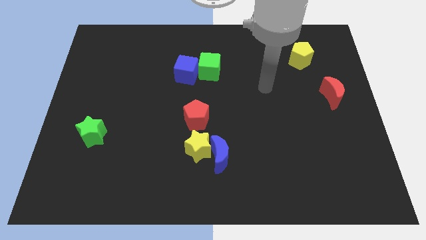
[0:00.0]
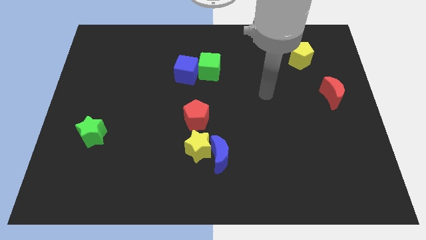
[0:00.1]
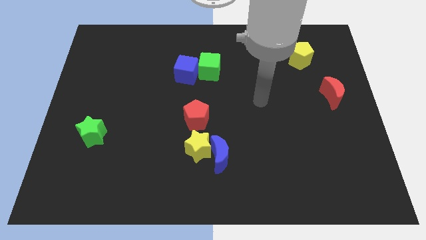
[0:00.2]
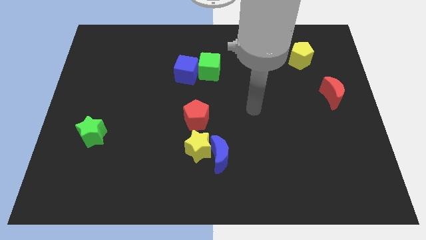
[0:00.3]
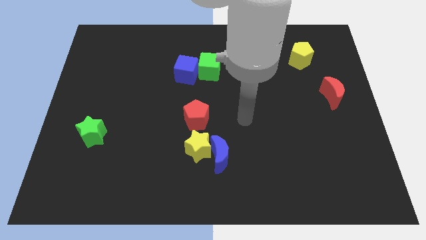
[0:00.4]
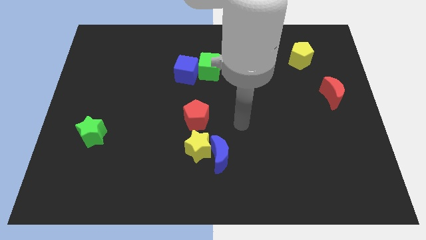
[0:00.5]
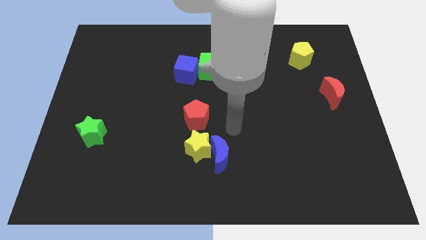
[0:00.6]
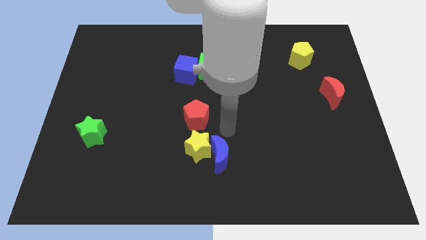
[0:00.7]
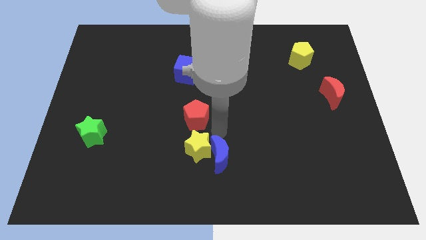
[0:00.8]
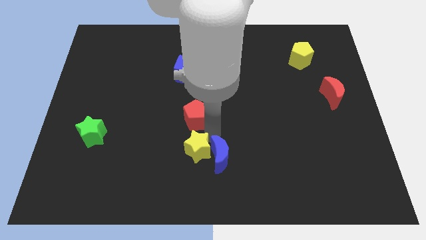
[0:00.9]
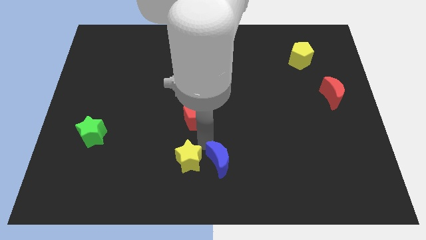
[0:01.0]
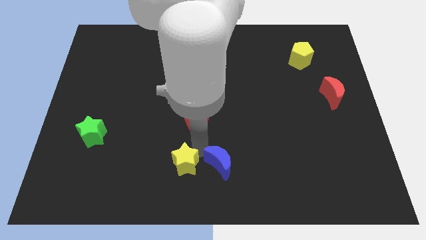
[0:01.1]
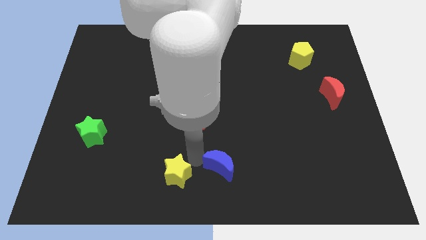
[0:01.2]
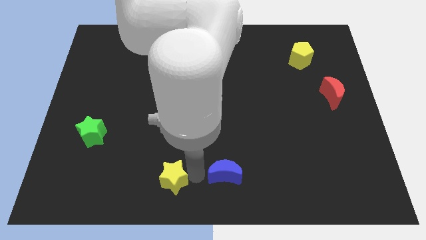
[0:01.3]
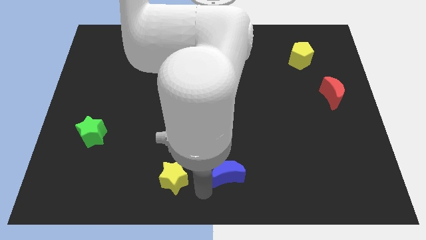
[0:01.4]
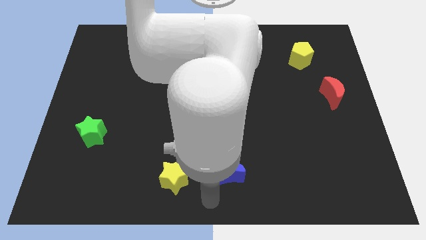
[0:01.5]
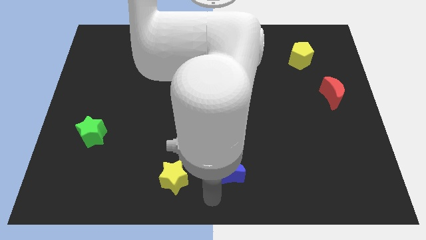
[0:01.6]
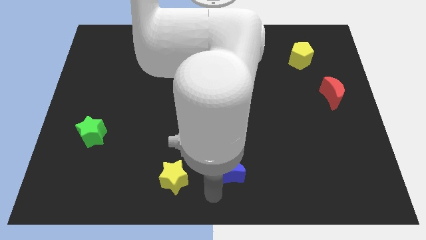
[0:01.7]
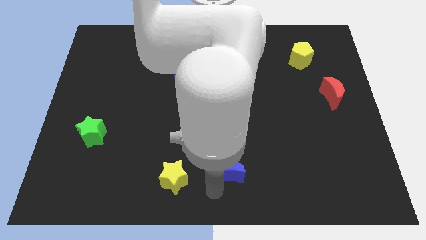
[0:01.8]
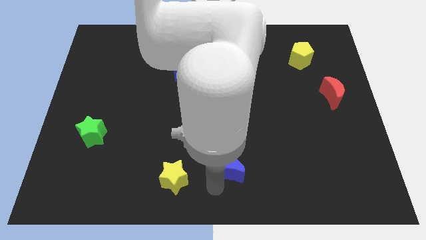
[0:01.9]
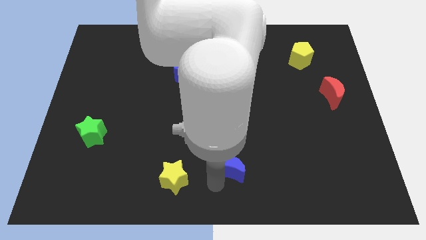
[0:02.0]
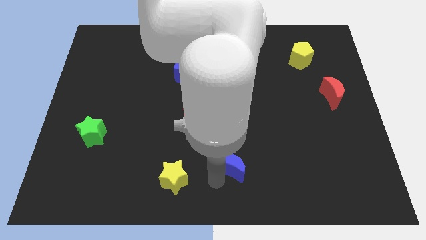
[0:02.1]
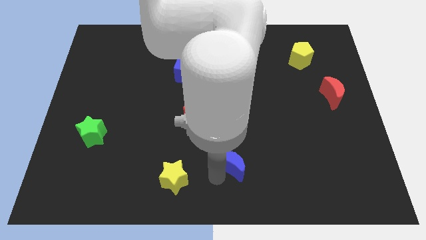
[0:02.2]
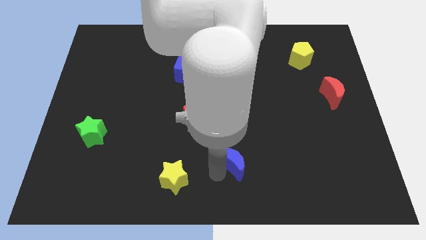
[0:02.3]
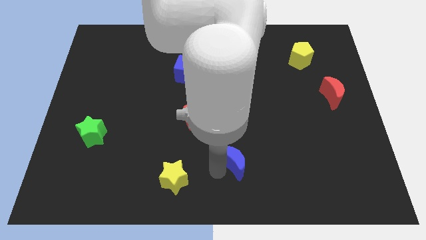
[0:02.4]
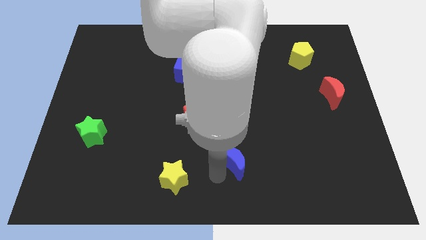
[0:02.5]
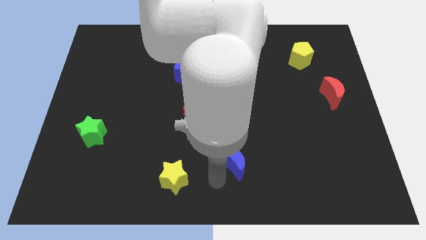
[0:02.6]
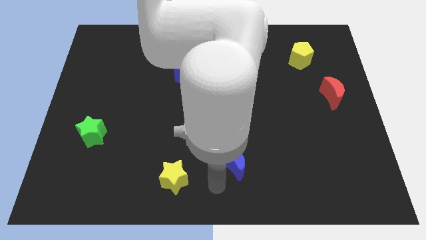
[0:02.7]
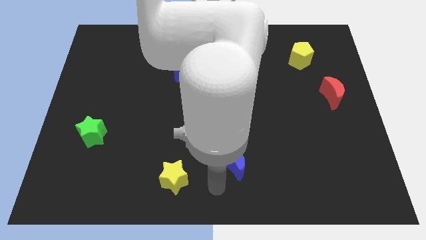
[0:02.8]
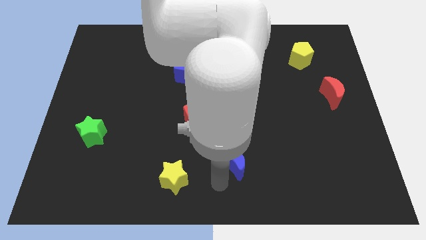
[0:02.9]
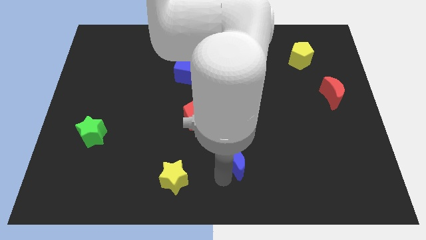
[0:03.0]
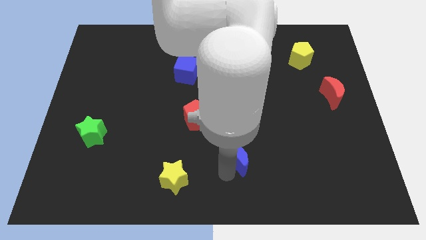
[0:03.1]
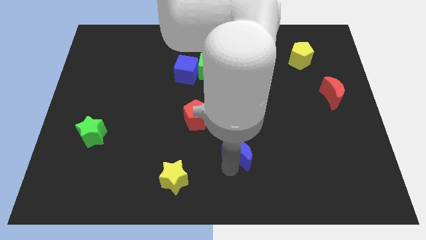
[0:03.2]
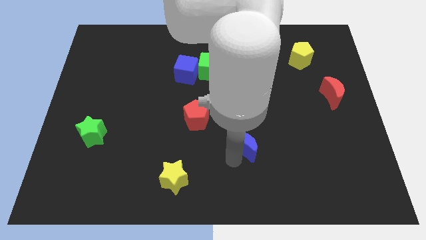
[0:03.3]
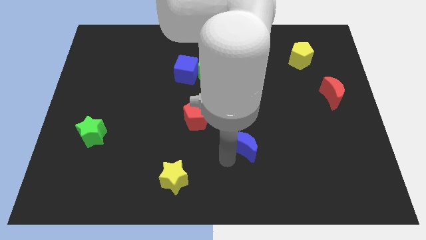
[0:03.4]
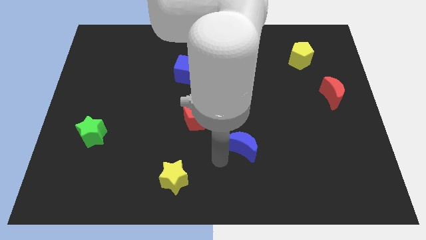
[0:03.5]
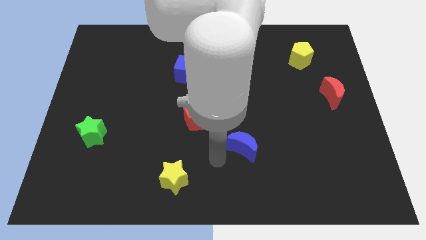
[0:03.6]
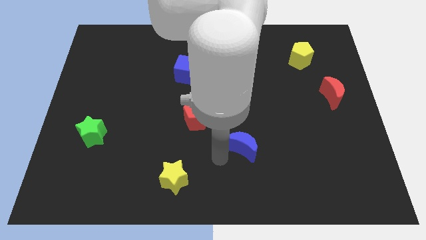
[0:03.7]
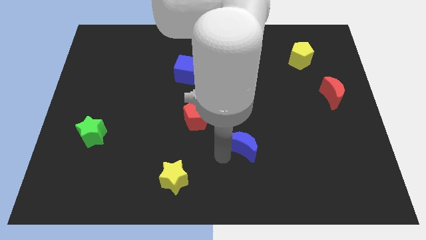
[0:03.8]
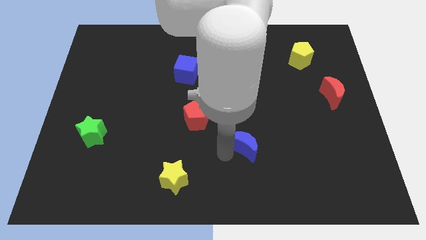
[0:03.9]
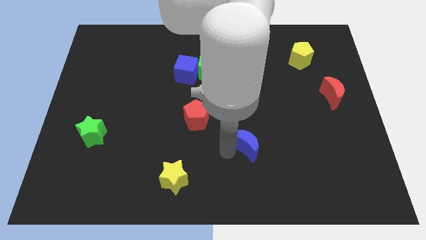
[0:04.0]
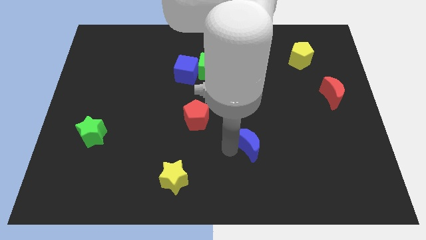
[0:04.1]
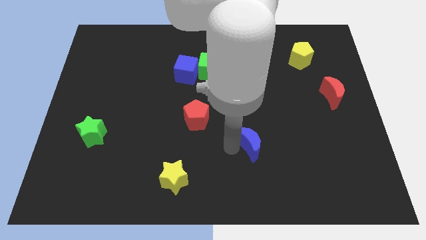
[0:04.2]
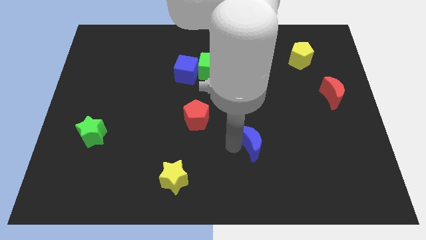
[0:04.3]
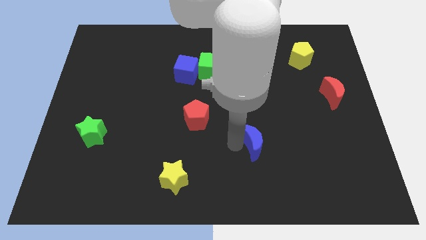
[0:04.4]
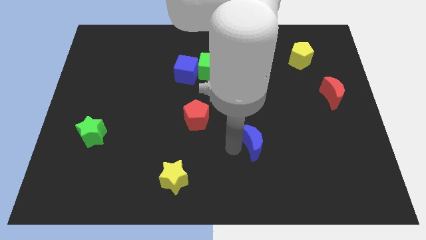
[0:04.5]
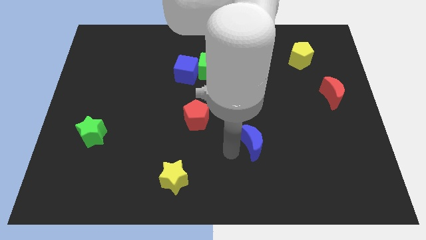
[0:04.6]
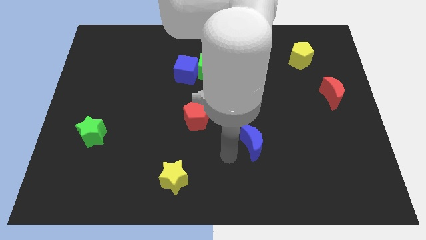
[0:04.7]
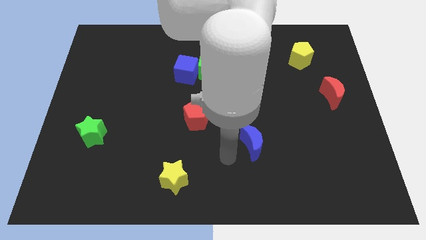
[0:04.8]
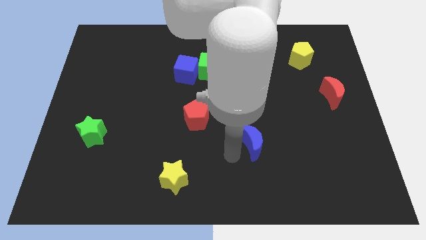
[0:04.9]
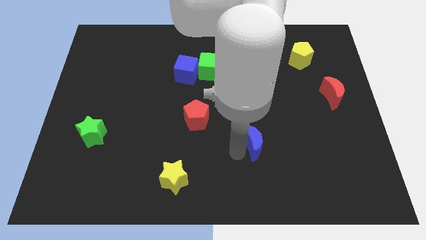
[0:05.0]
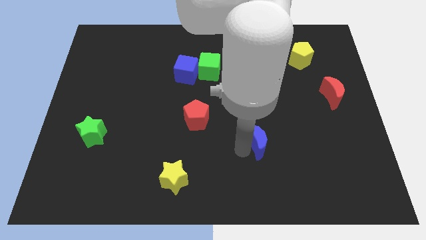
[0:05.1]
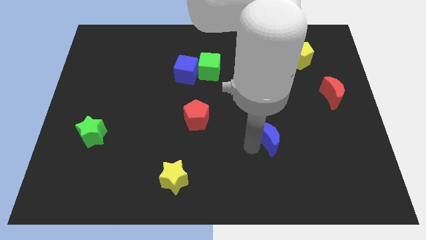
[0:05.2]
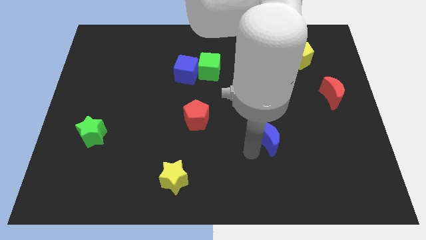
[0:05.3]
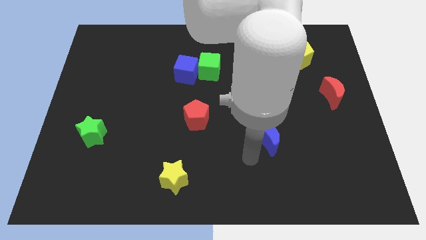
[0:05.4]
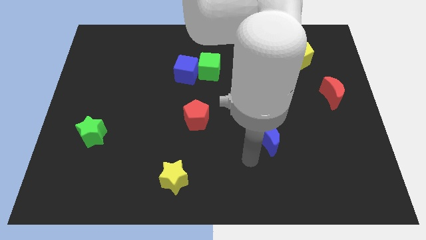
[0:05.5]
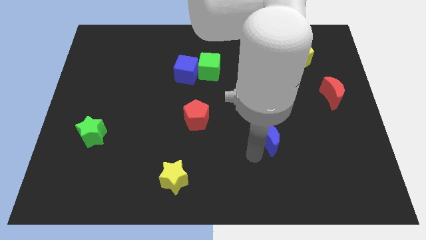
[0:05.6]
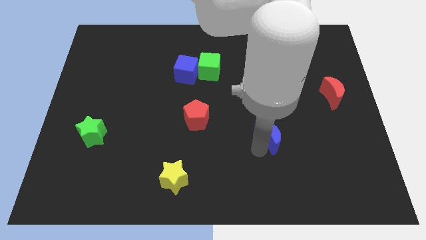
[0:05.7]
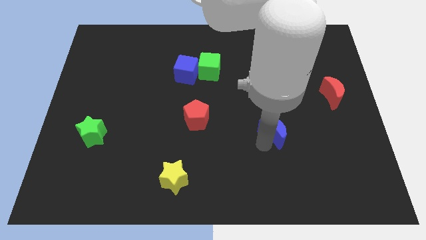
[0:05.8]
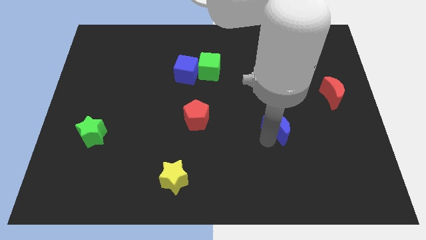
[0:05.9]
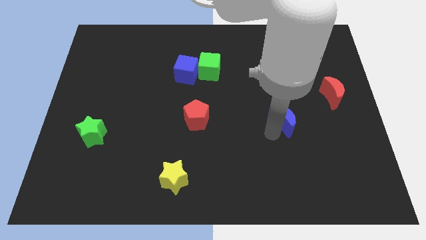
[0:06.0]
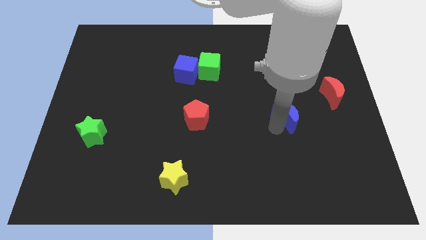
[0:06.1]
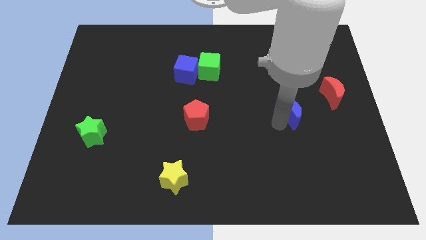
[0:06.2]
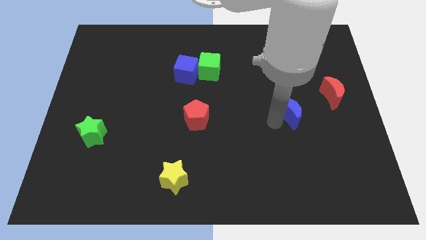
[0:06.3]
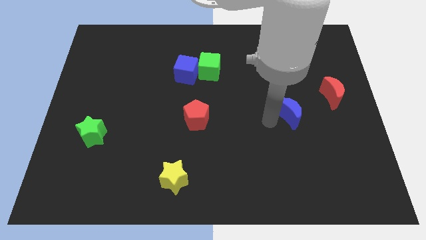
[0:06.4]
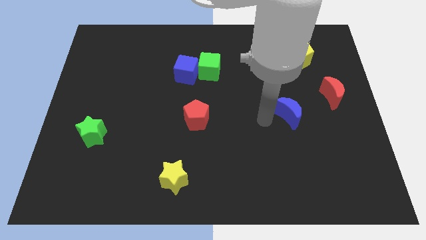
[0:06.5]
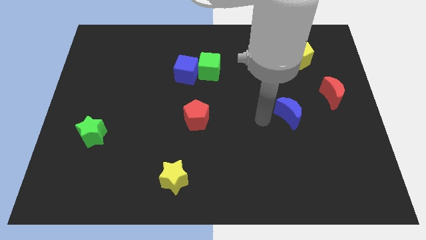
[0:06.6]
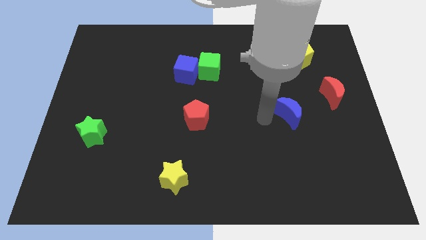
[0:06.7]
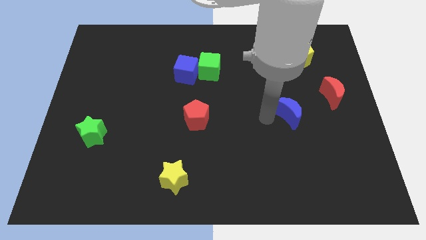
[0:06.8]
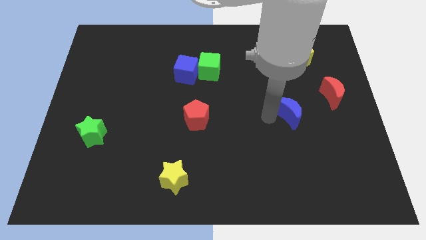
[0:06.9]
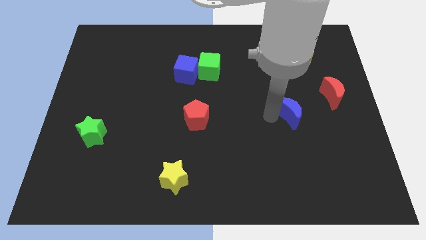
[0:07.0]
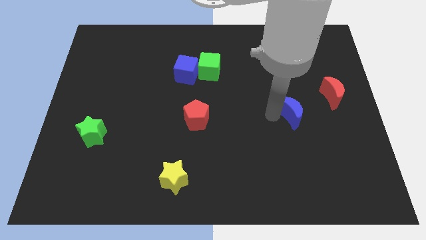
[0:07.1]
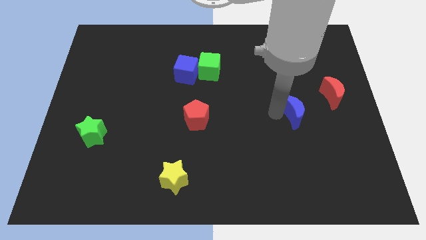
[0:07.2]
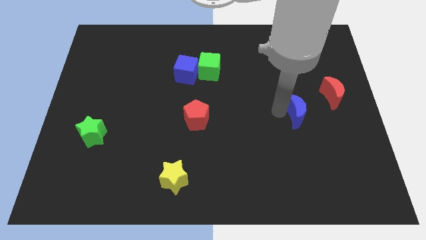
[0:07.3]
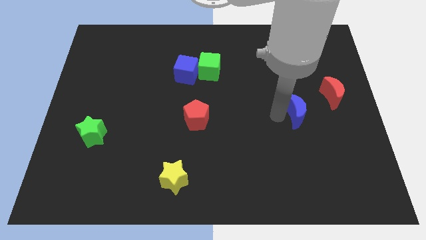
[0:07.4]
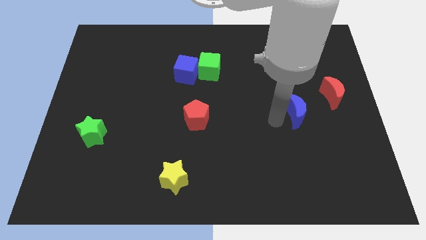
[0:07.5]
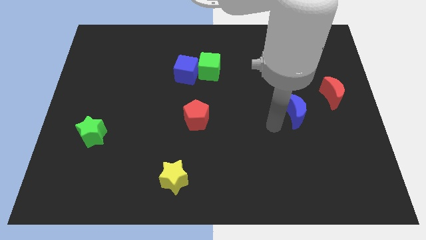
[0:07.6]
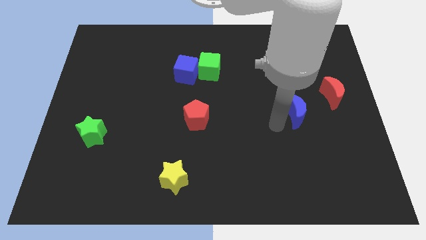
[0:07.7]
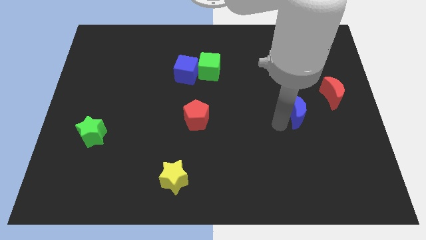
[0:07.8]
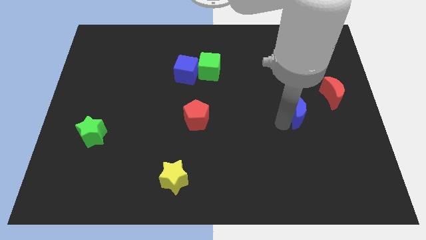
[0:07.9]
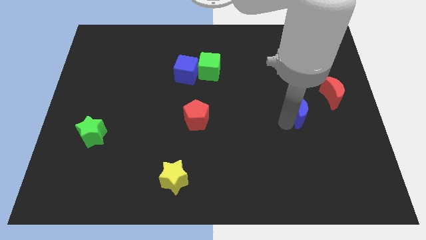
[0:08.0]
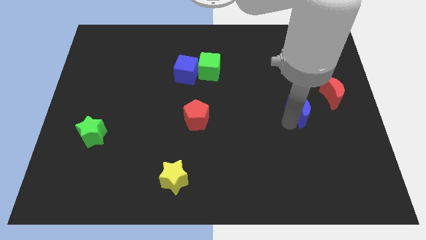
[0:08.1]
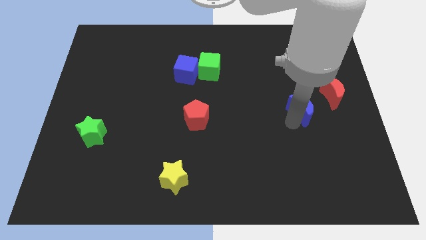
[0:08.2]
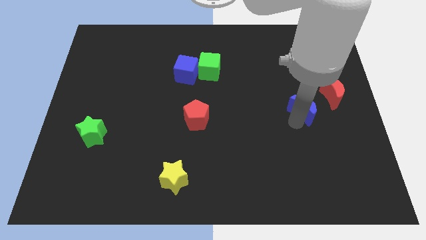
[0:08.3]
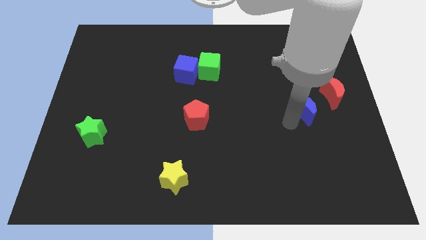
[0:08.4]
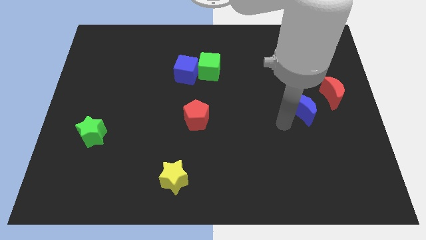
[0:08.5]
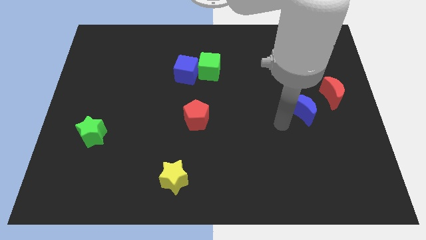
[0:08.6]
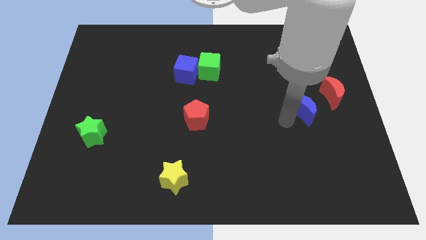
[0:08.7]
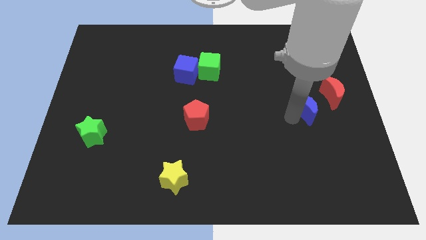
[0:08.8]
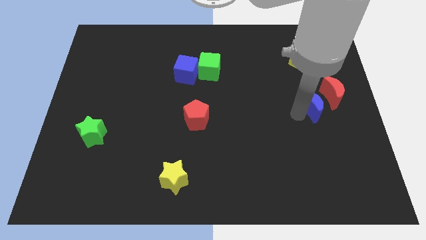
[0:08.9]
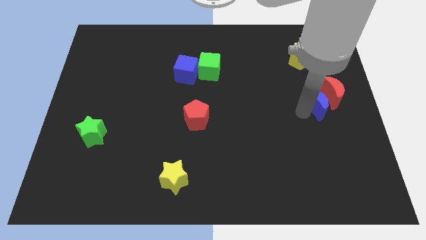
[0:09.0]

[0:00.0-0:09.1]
slide the blue moon to the red moon
